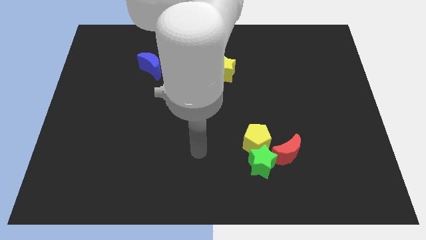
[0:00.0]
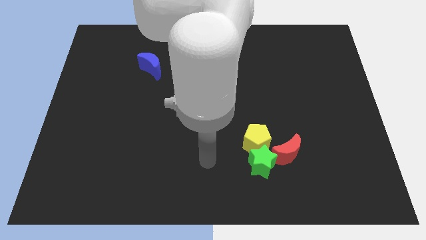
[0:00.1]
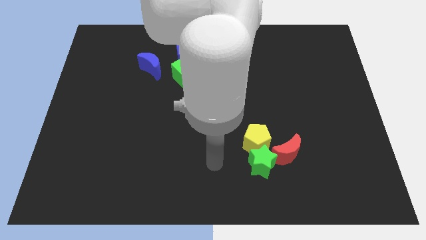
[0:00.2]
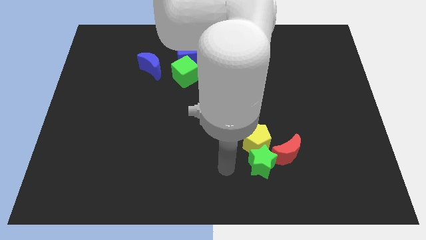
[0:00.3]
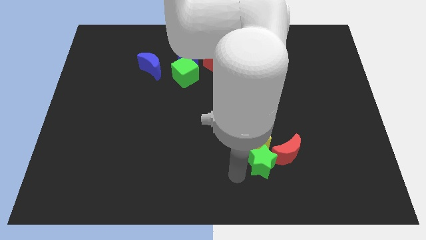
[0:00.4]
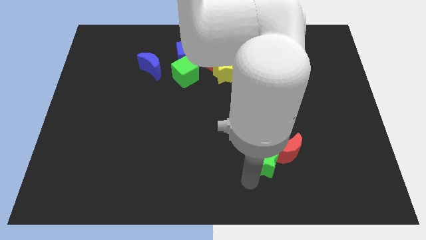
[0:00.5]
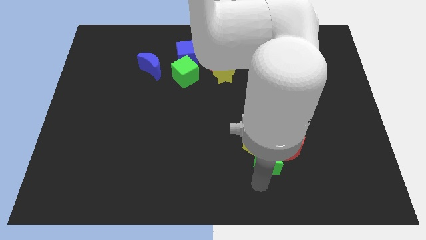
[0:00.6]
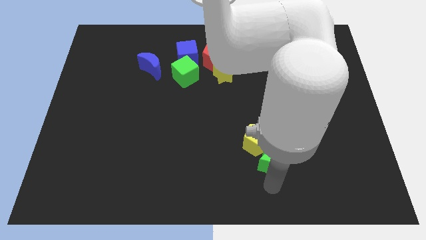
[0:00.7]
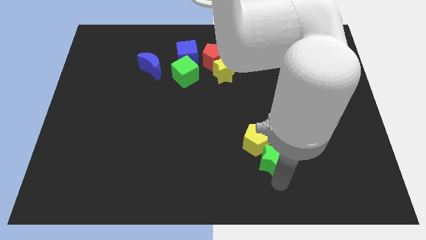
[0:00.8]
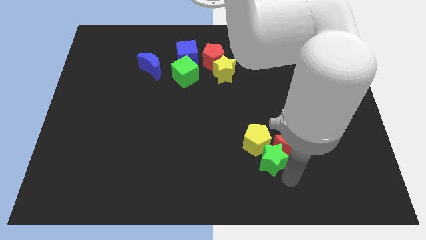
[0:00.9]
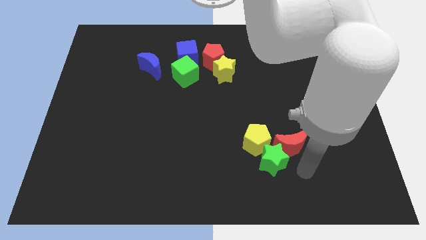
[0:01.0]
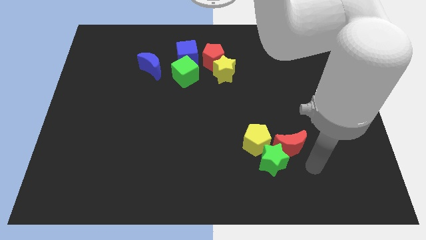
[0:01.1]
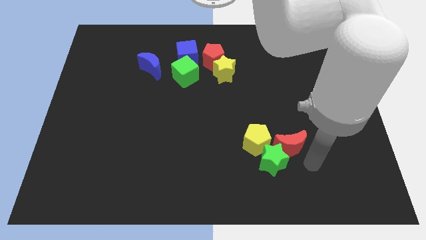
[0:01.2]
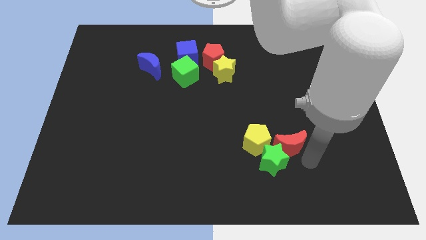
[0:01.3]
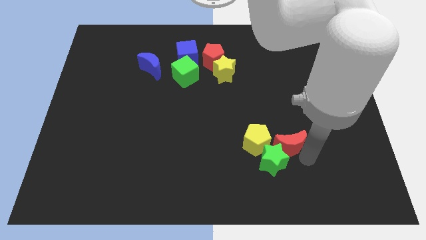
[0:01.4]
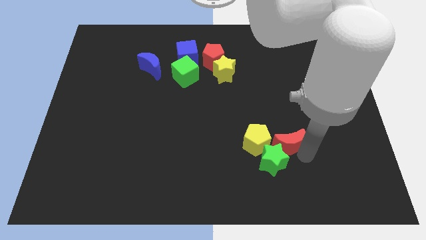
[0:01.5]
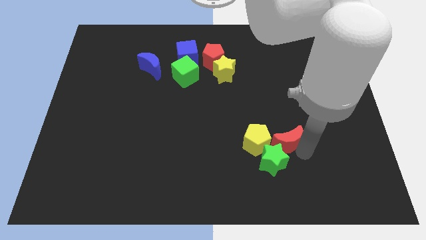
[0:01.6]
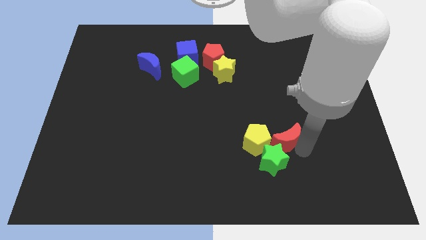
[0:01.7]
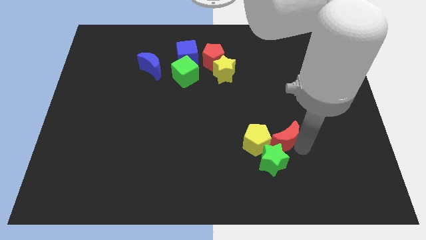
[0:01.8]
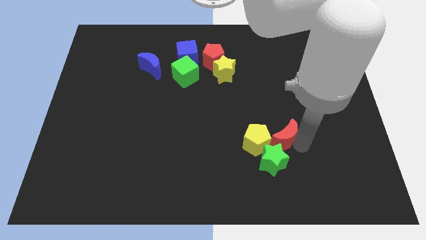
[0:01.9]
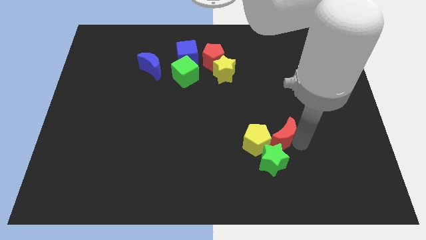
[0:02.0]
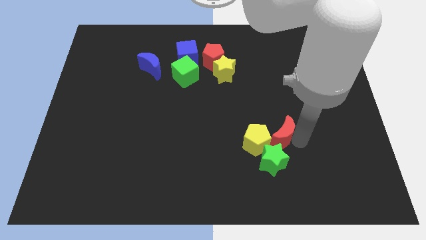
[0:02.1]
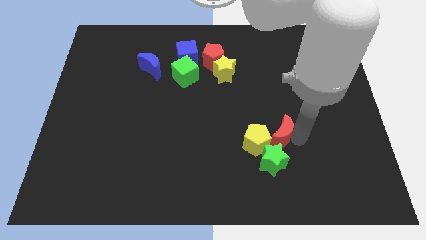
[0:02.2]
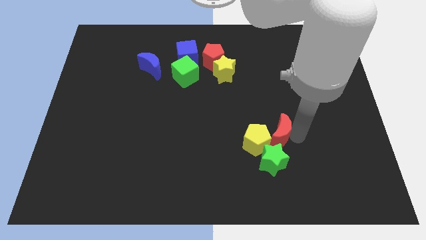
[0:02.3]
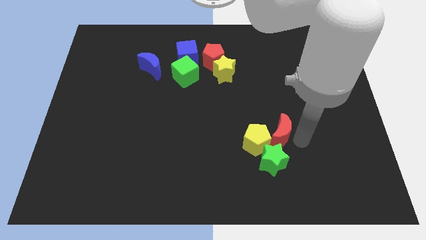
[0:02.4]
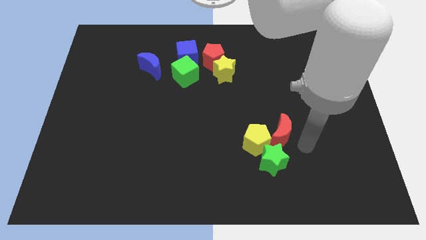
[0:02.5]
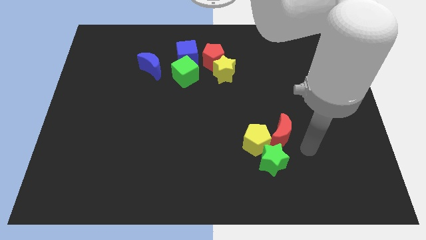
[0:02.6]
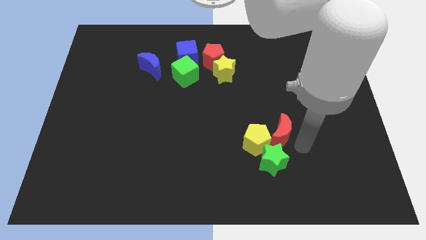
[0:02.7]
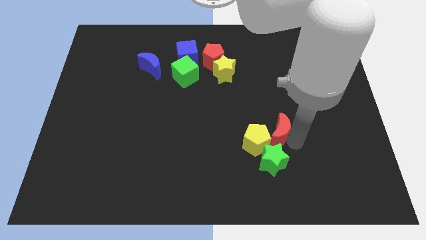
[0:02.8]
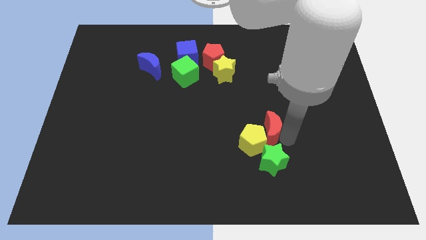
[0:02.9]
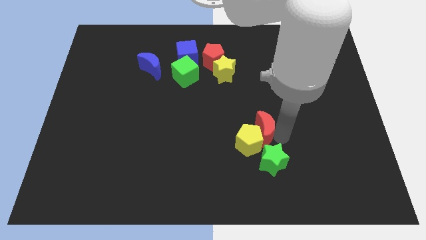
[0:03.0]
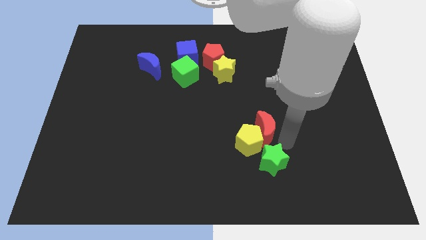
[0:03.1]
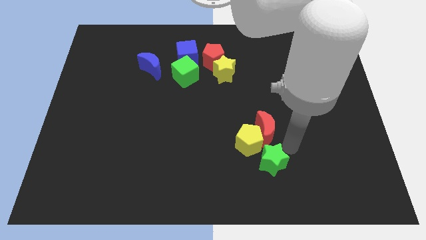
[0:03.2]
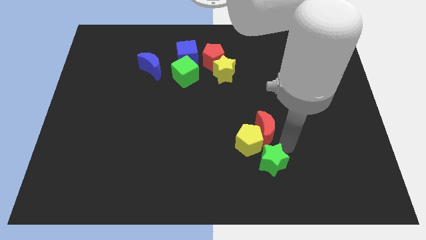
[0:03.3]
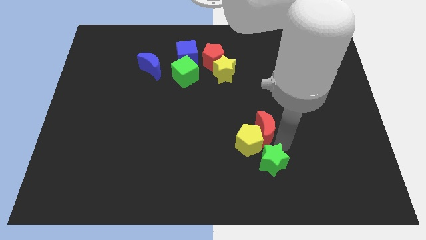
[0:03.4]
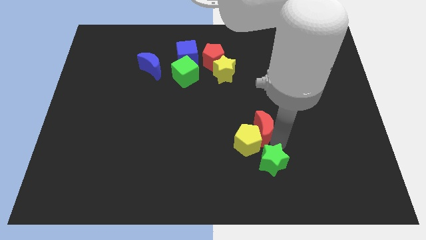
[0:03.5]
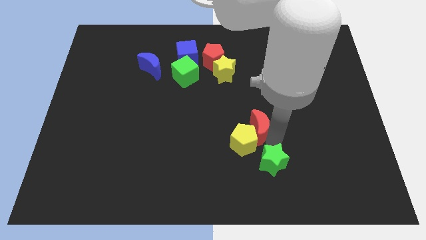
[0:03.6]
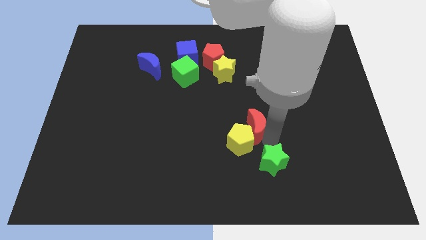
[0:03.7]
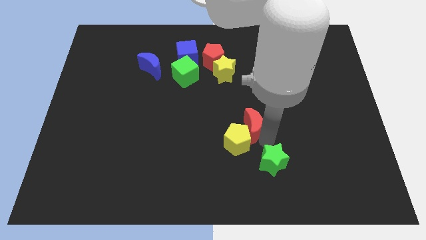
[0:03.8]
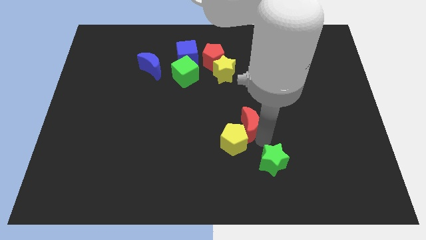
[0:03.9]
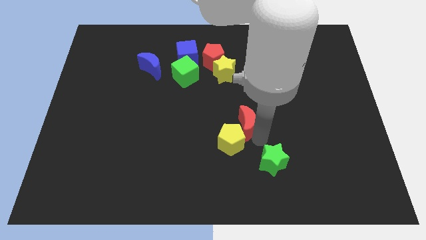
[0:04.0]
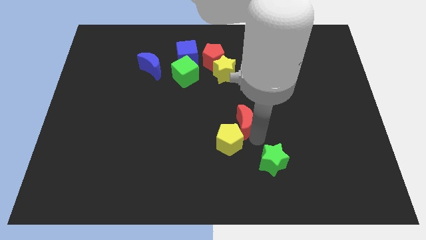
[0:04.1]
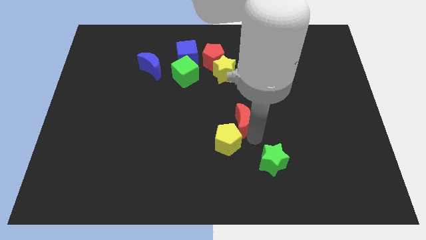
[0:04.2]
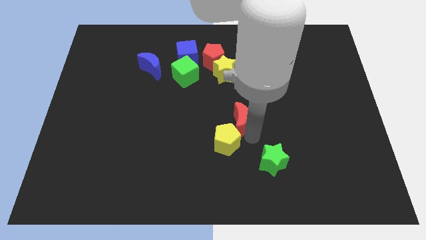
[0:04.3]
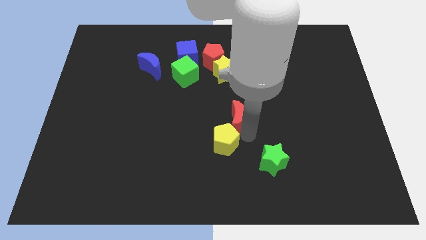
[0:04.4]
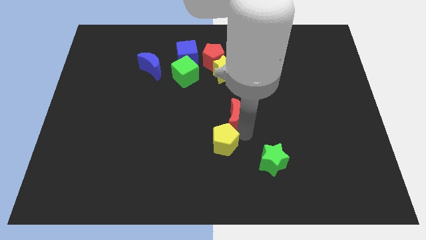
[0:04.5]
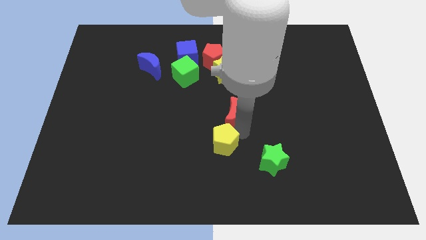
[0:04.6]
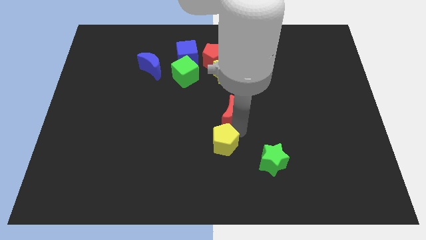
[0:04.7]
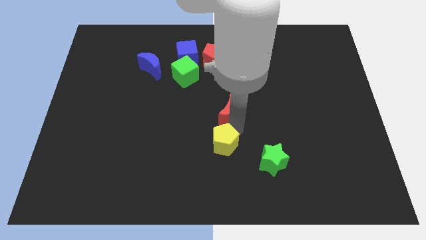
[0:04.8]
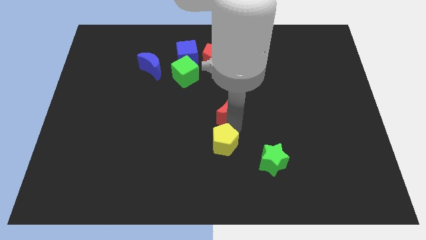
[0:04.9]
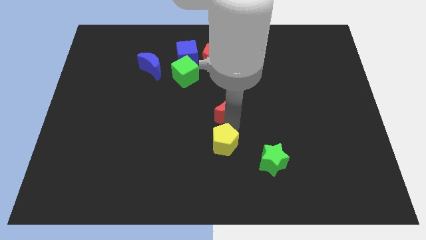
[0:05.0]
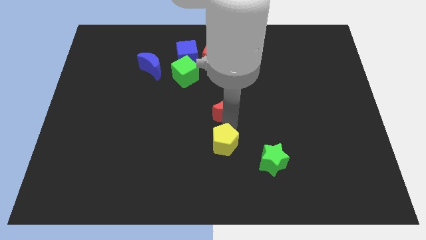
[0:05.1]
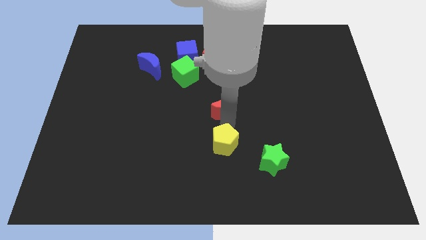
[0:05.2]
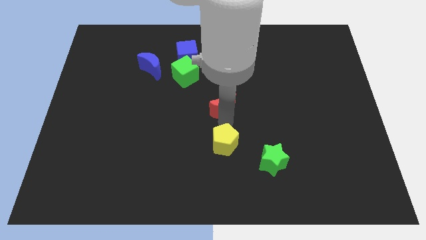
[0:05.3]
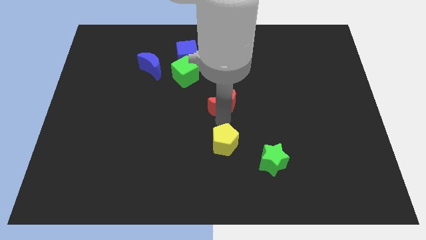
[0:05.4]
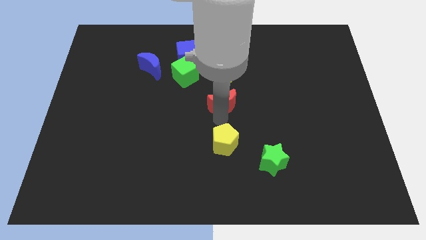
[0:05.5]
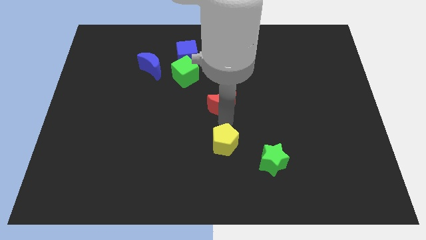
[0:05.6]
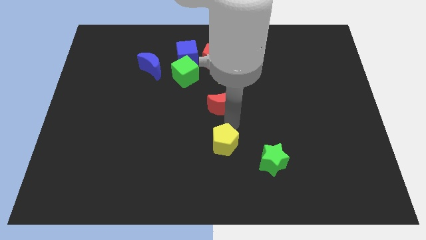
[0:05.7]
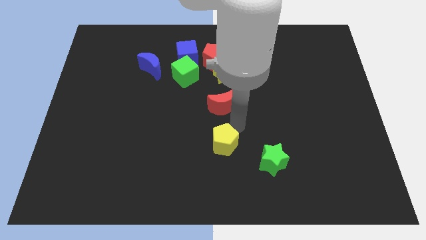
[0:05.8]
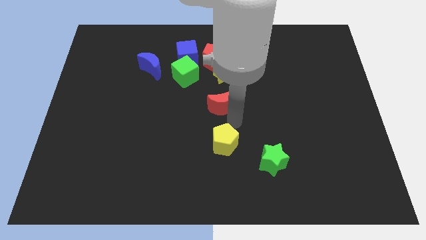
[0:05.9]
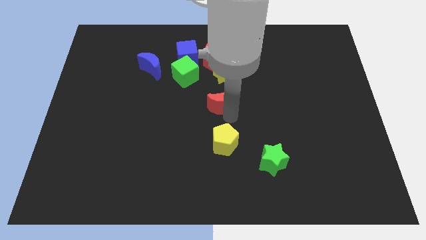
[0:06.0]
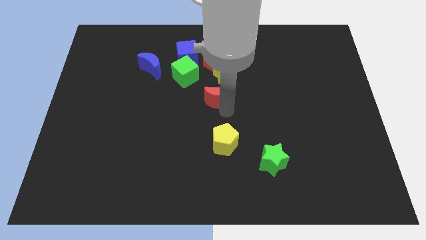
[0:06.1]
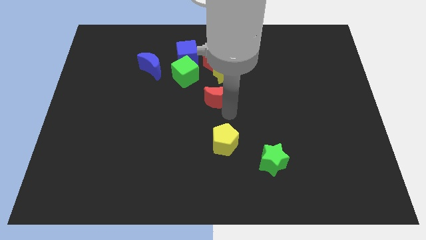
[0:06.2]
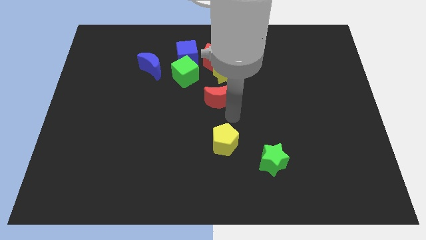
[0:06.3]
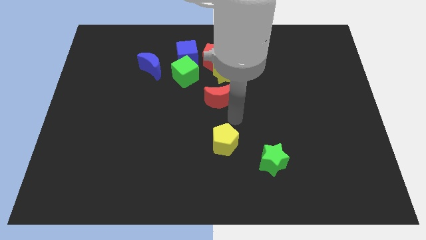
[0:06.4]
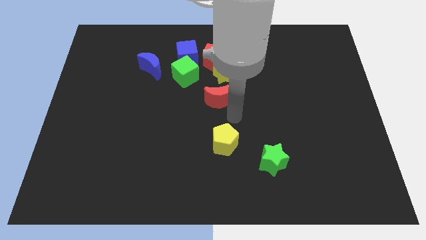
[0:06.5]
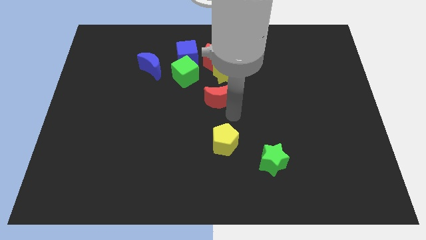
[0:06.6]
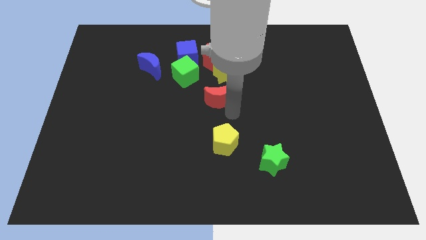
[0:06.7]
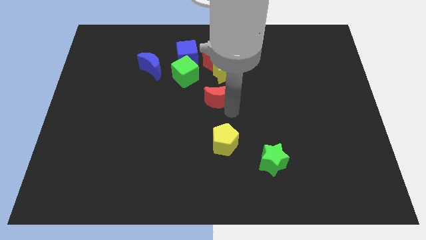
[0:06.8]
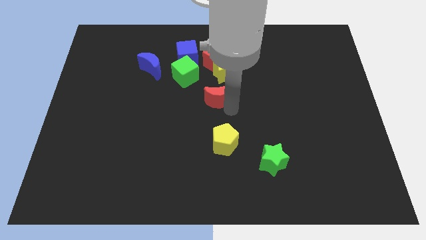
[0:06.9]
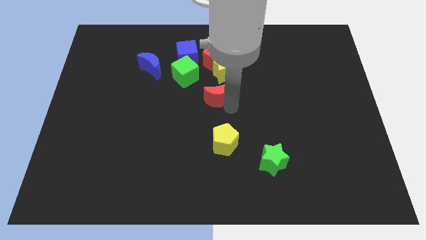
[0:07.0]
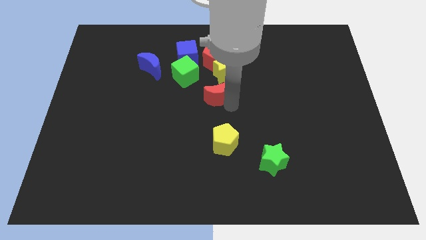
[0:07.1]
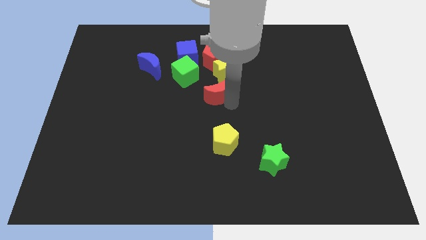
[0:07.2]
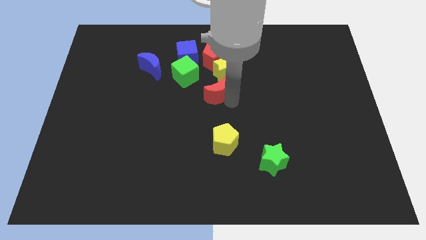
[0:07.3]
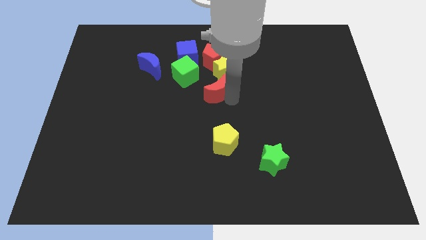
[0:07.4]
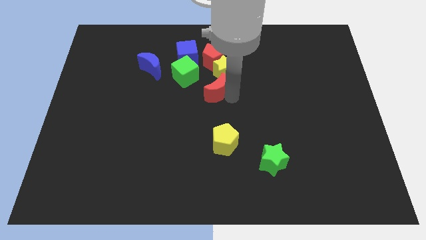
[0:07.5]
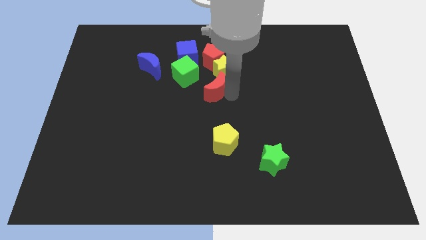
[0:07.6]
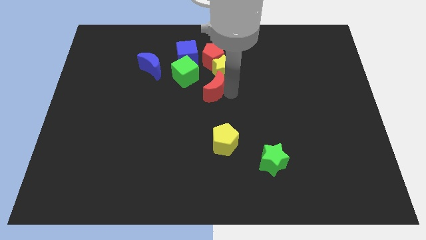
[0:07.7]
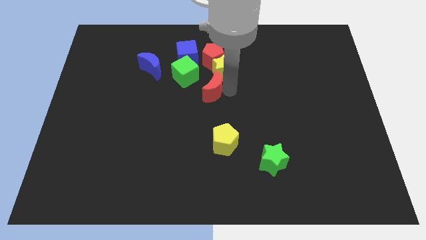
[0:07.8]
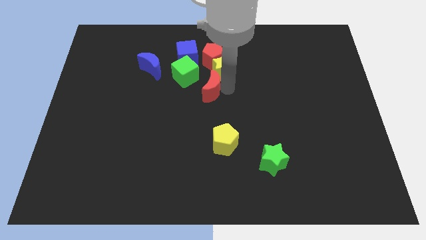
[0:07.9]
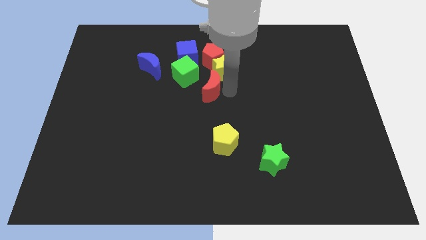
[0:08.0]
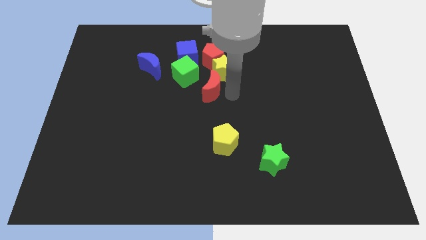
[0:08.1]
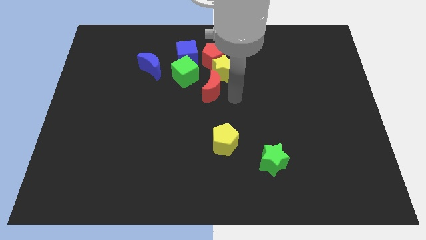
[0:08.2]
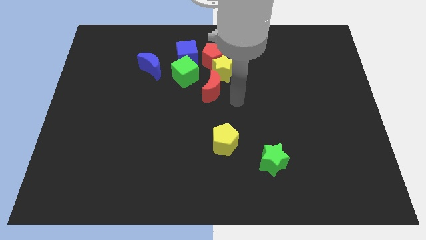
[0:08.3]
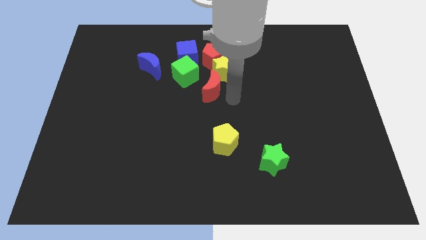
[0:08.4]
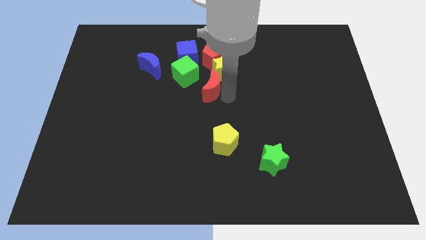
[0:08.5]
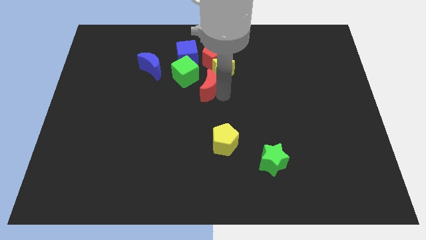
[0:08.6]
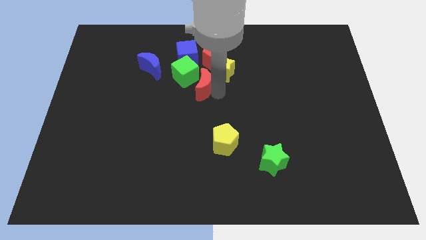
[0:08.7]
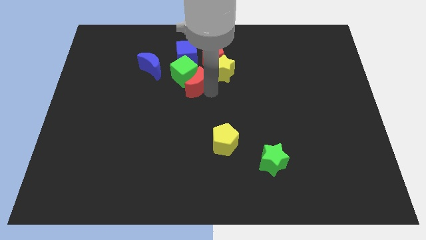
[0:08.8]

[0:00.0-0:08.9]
put the red moon to the green cube
